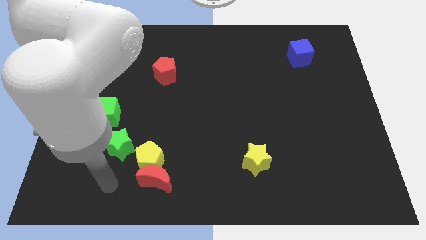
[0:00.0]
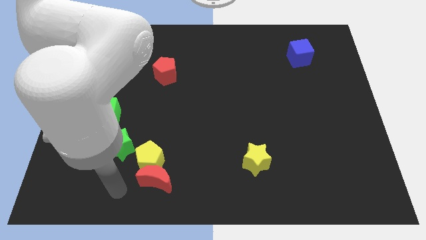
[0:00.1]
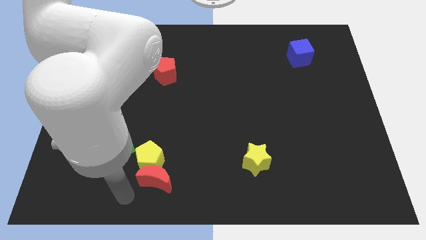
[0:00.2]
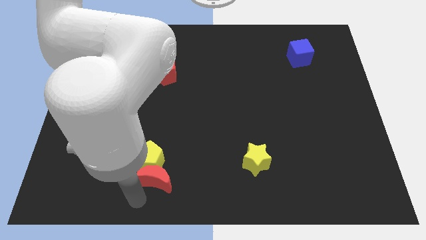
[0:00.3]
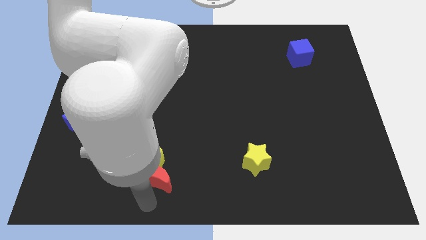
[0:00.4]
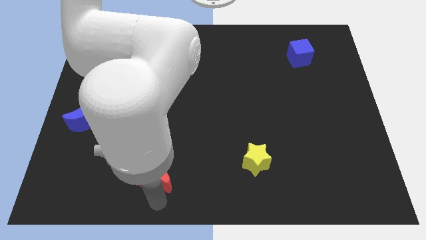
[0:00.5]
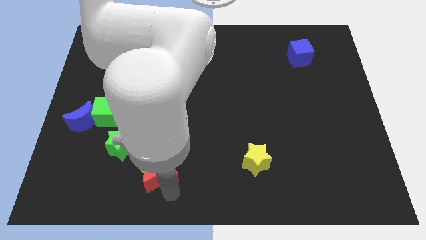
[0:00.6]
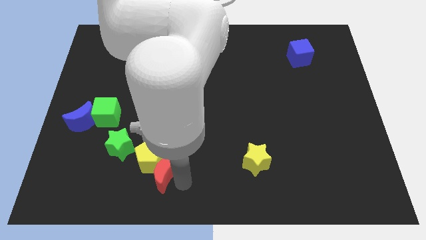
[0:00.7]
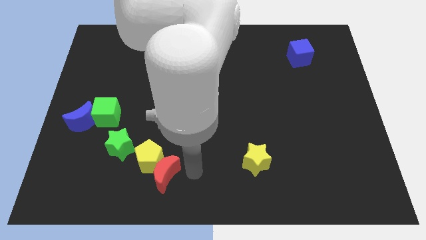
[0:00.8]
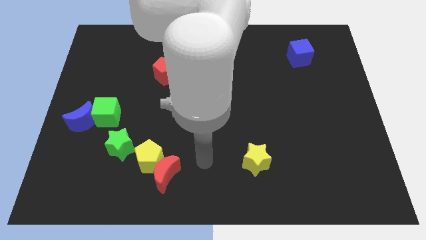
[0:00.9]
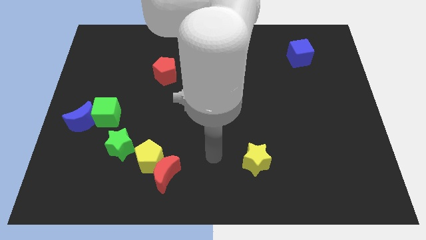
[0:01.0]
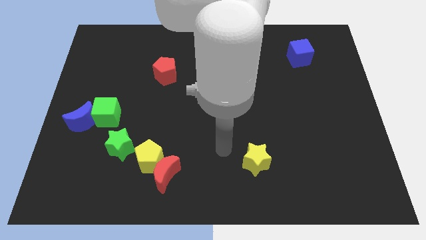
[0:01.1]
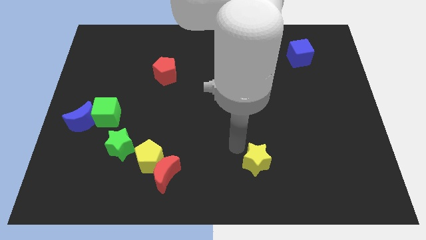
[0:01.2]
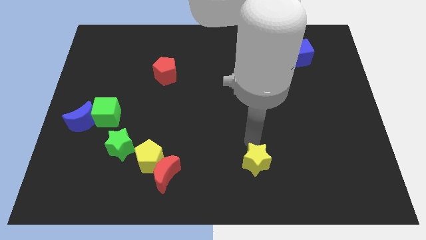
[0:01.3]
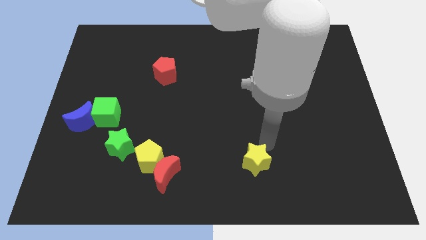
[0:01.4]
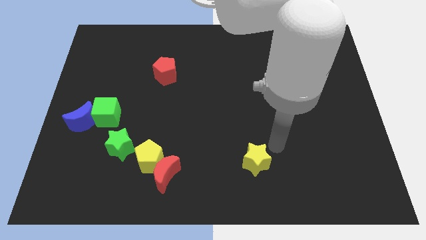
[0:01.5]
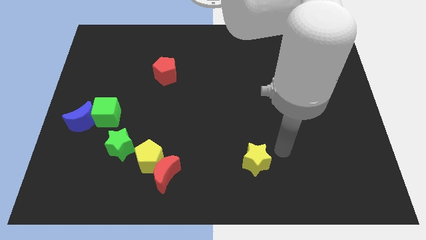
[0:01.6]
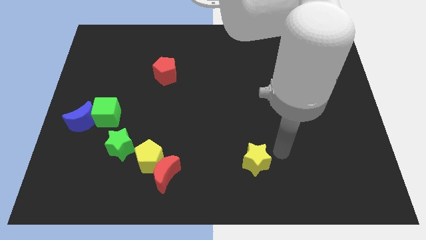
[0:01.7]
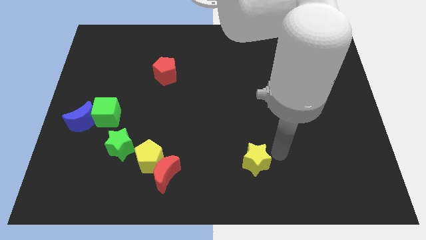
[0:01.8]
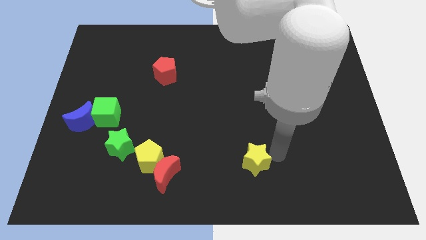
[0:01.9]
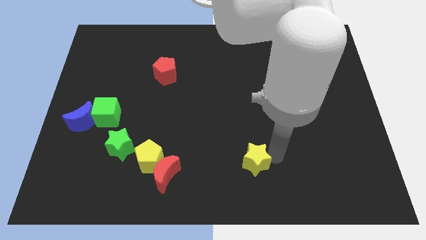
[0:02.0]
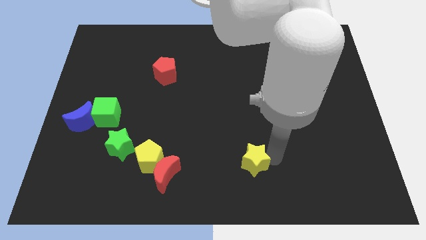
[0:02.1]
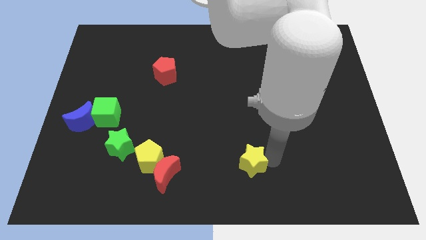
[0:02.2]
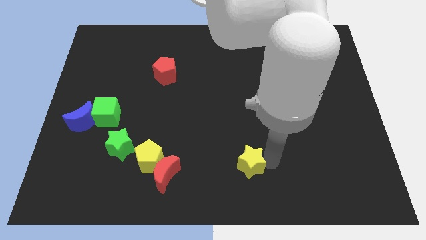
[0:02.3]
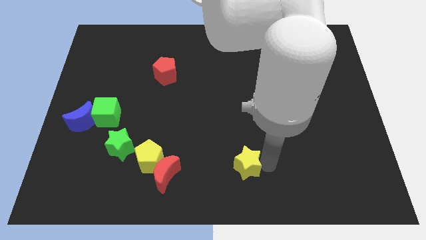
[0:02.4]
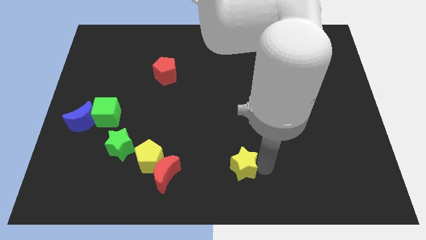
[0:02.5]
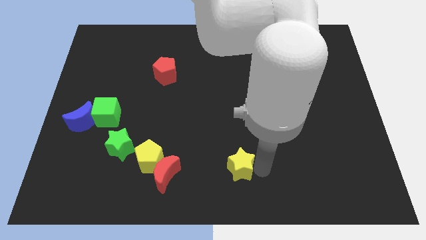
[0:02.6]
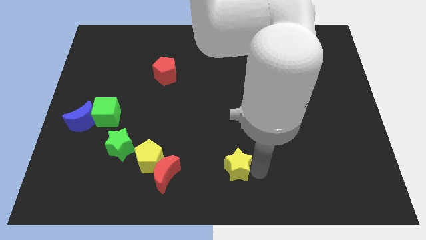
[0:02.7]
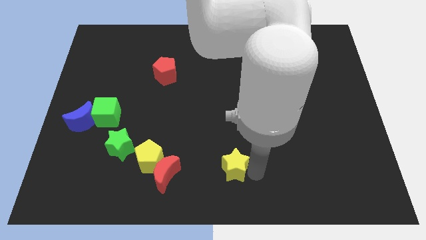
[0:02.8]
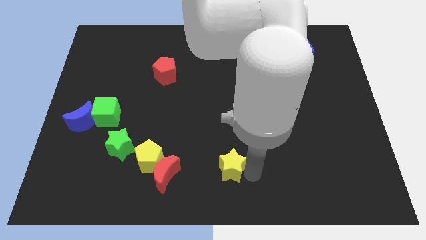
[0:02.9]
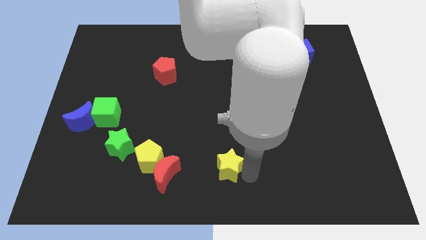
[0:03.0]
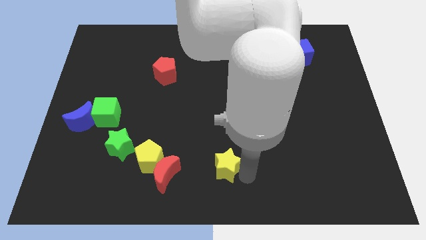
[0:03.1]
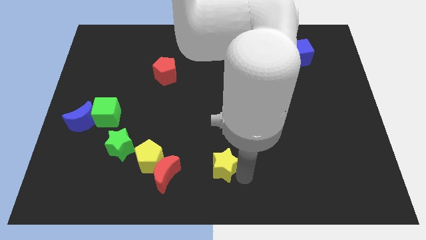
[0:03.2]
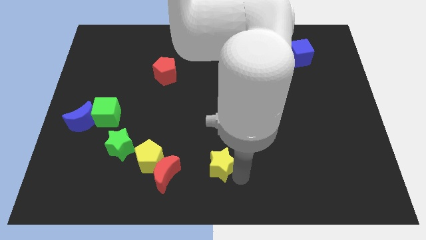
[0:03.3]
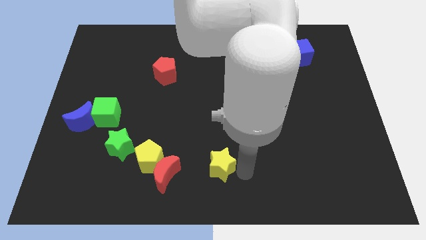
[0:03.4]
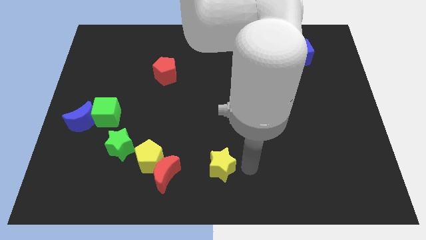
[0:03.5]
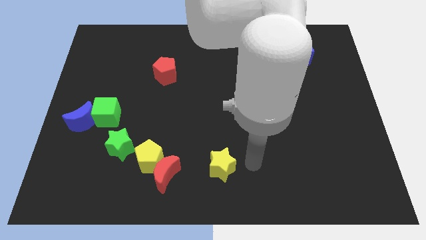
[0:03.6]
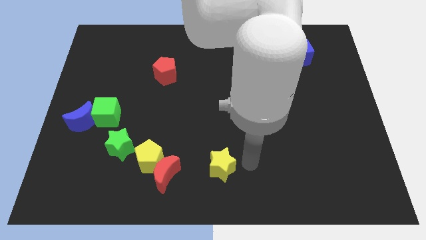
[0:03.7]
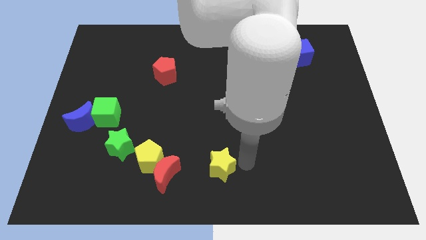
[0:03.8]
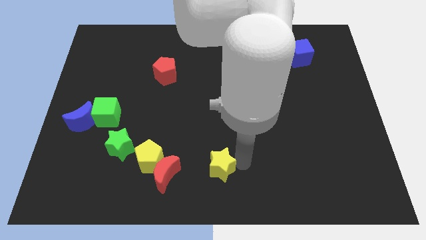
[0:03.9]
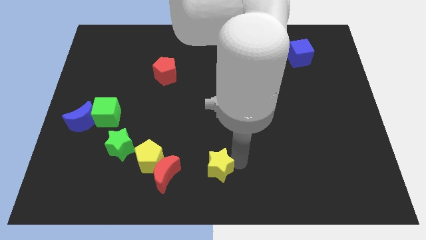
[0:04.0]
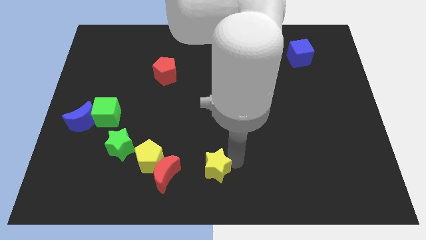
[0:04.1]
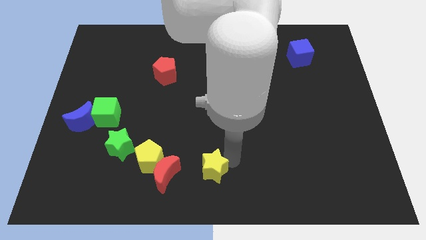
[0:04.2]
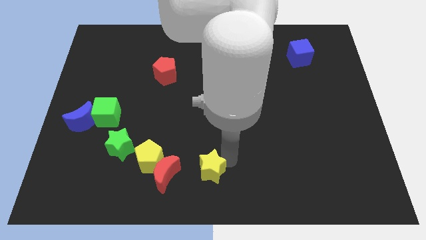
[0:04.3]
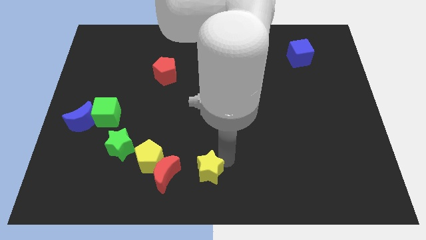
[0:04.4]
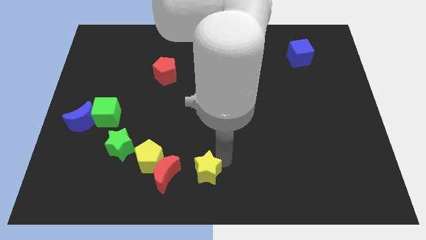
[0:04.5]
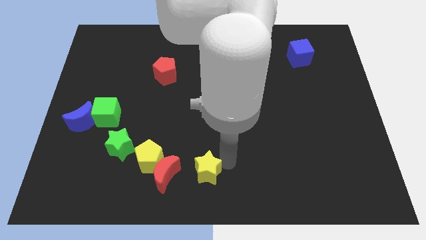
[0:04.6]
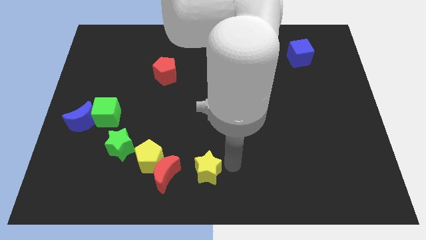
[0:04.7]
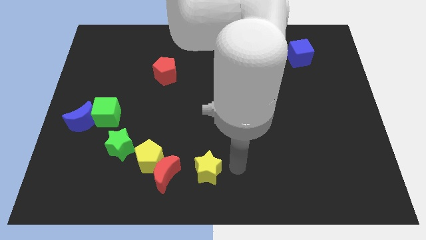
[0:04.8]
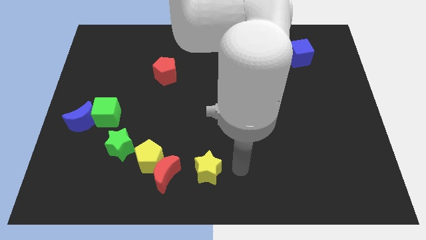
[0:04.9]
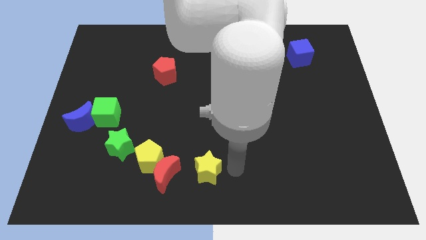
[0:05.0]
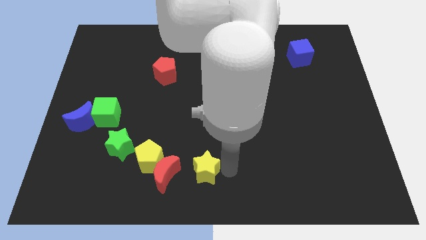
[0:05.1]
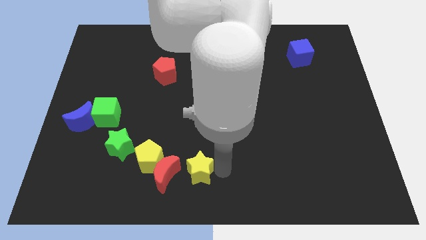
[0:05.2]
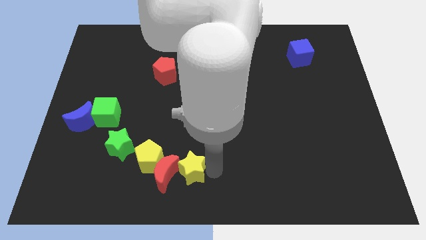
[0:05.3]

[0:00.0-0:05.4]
push the yellow star close to the red moon

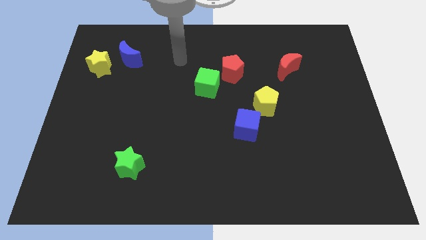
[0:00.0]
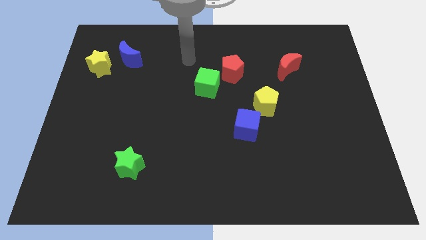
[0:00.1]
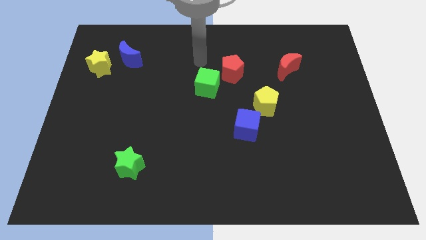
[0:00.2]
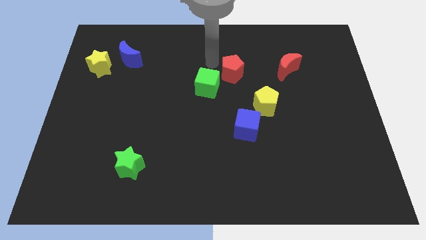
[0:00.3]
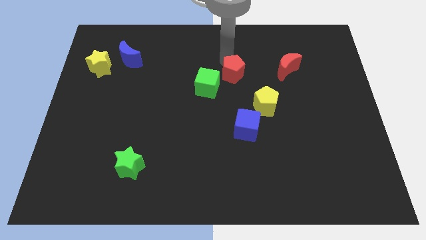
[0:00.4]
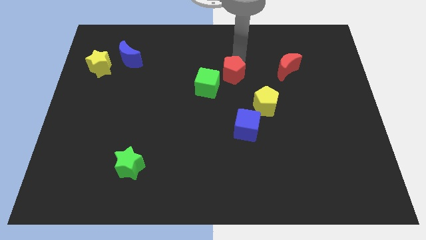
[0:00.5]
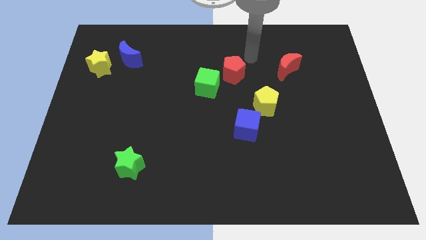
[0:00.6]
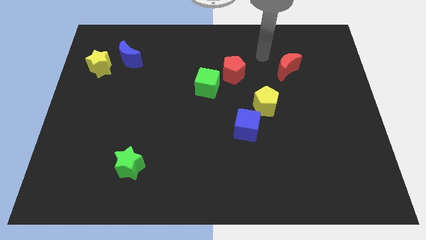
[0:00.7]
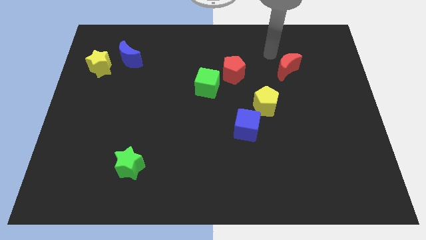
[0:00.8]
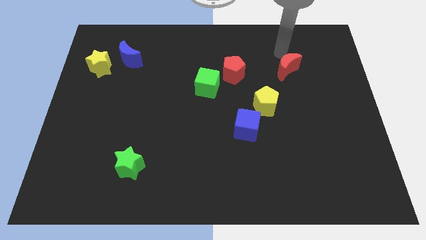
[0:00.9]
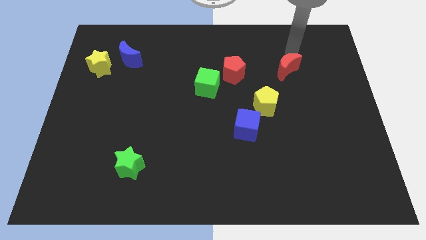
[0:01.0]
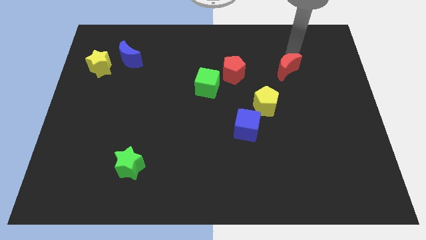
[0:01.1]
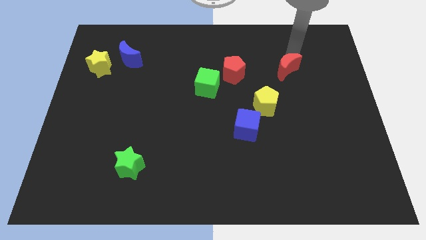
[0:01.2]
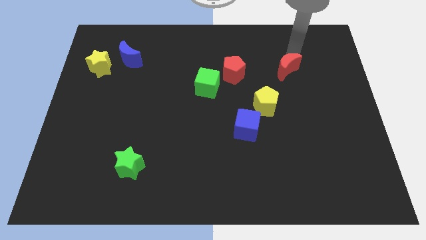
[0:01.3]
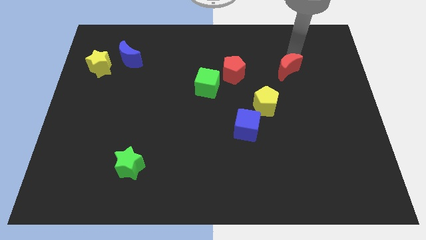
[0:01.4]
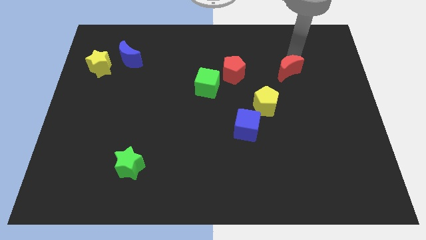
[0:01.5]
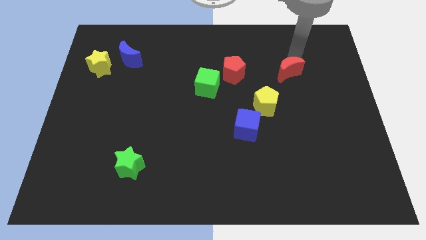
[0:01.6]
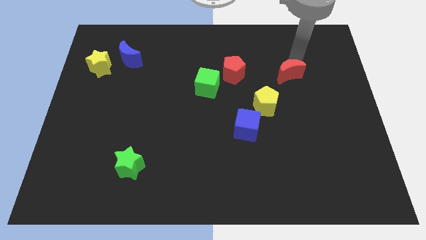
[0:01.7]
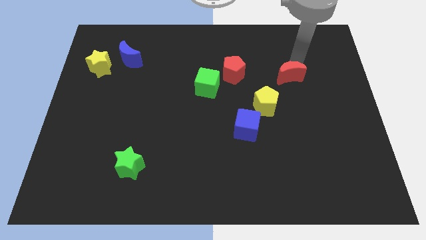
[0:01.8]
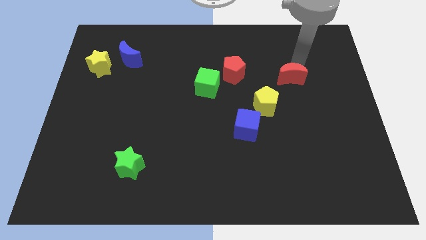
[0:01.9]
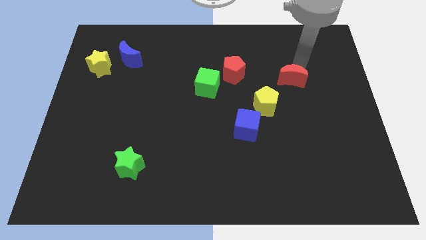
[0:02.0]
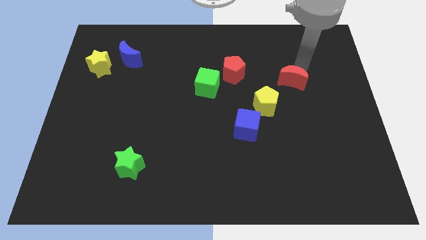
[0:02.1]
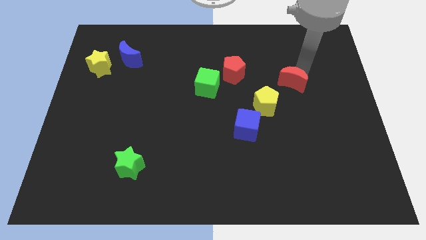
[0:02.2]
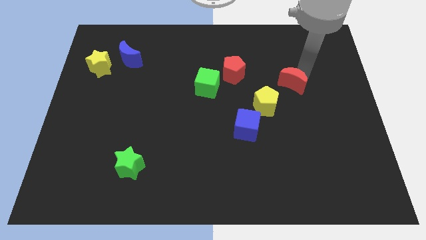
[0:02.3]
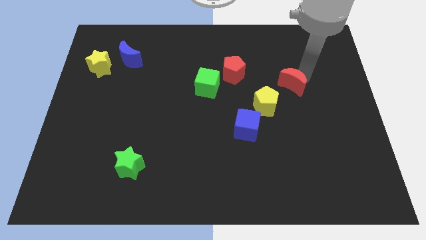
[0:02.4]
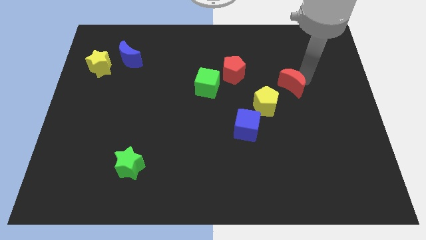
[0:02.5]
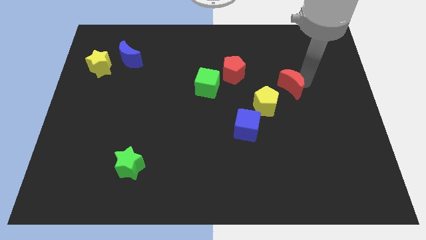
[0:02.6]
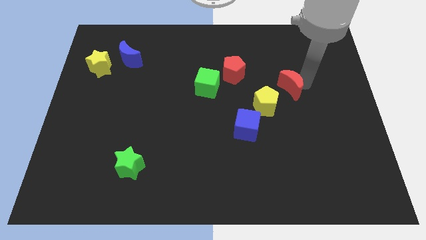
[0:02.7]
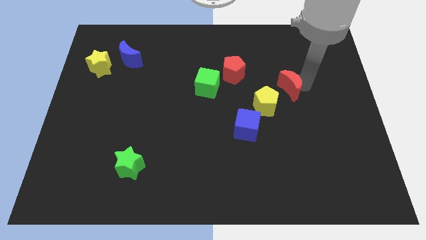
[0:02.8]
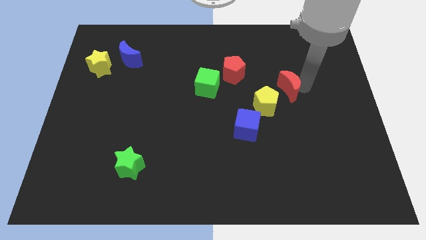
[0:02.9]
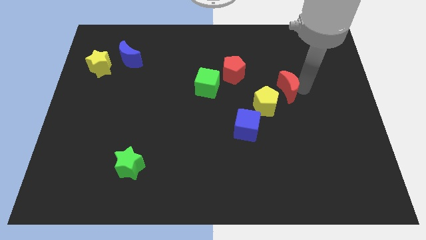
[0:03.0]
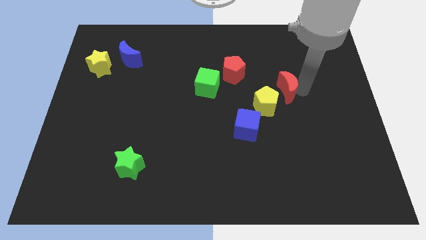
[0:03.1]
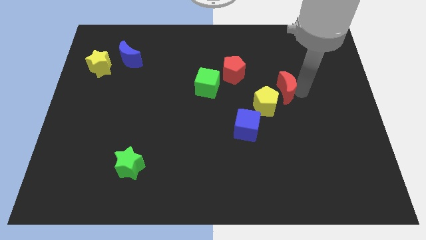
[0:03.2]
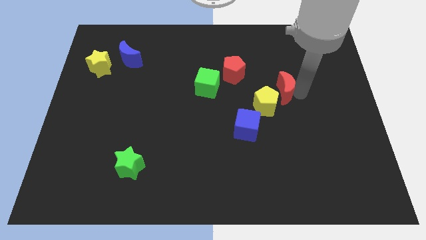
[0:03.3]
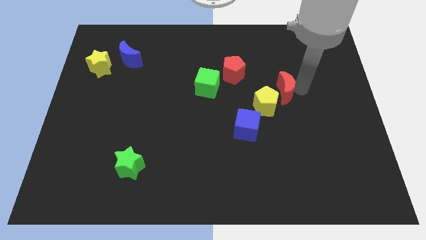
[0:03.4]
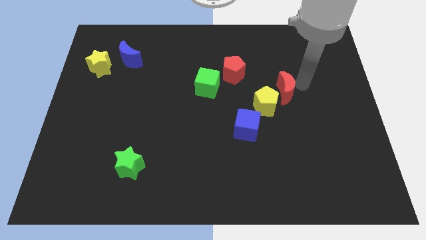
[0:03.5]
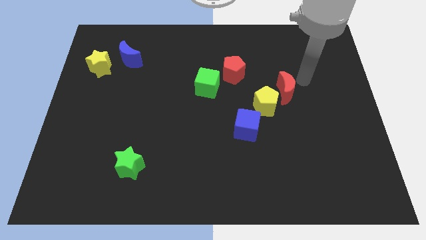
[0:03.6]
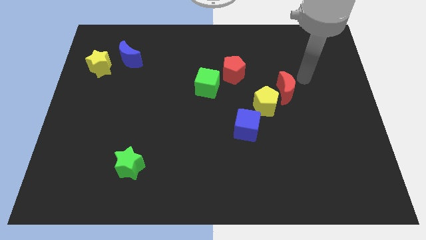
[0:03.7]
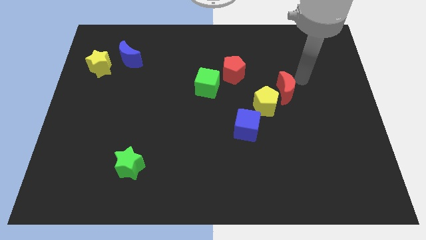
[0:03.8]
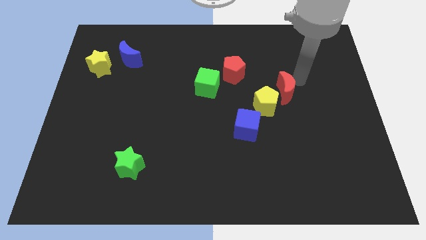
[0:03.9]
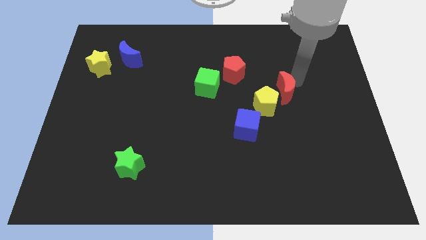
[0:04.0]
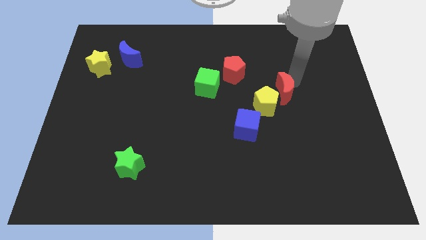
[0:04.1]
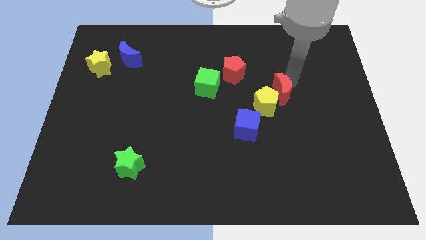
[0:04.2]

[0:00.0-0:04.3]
push the red moon close to the yellow pentagon
